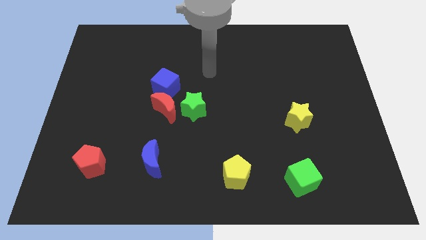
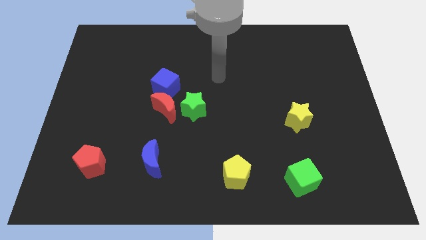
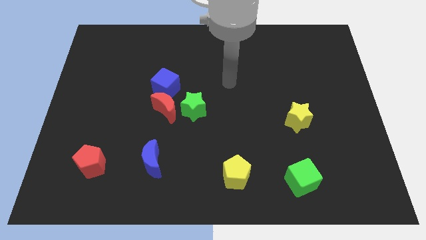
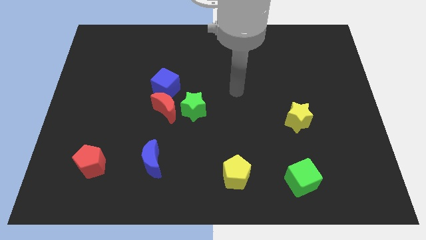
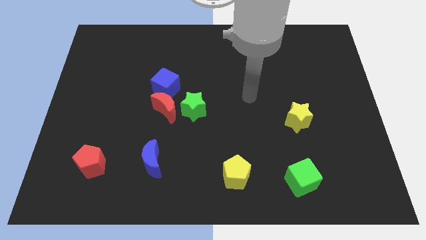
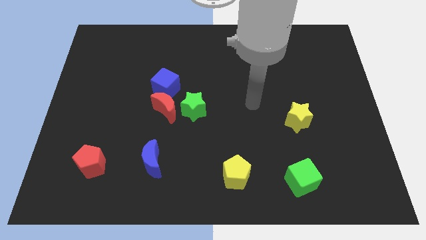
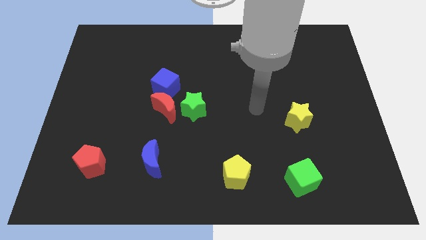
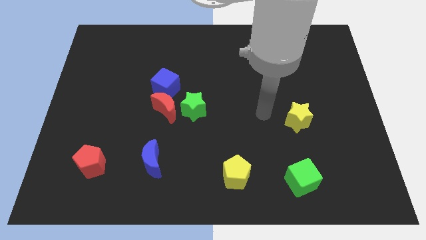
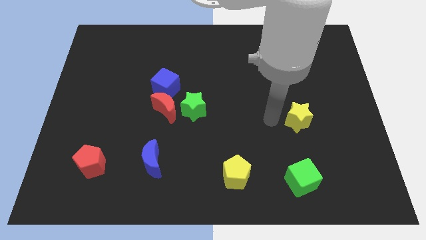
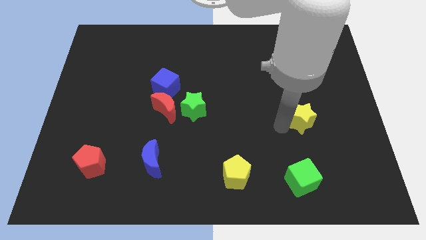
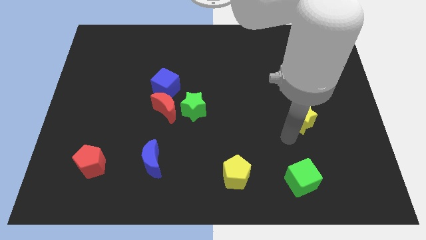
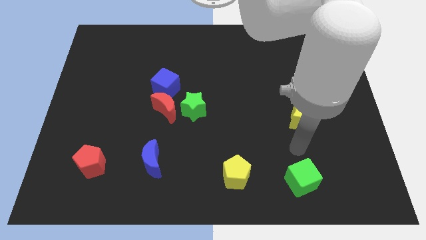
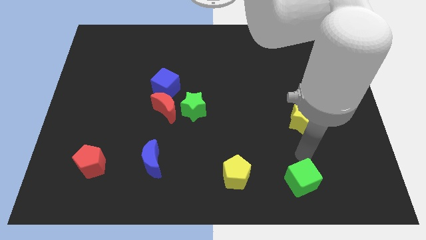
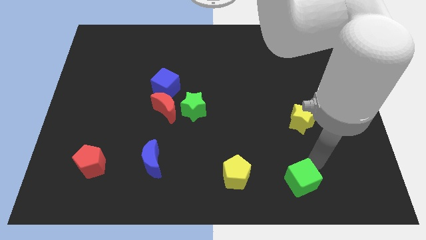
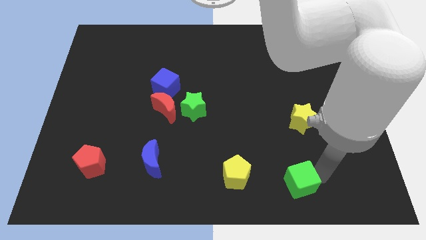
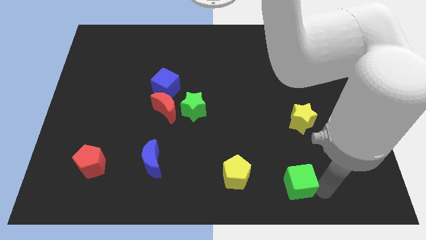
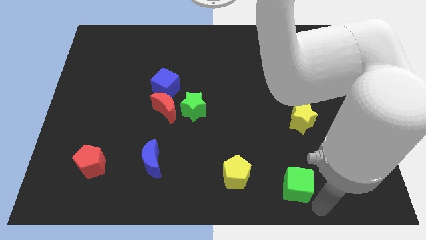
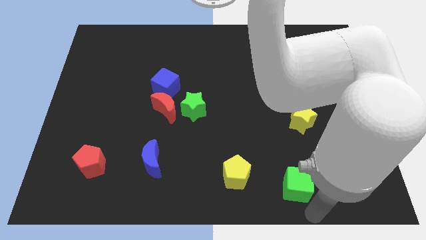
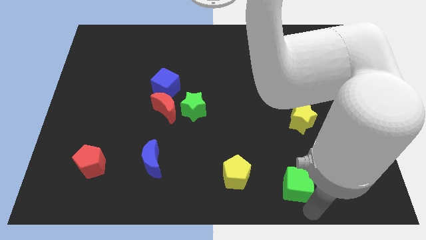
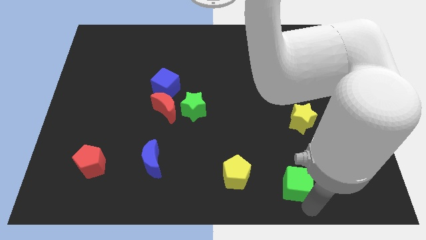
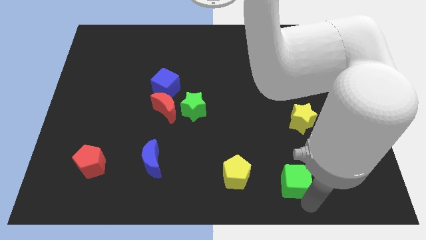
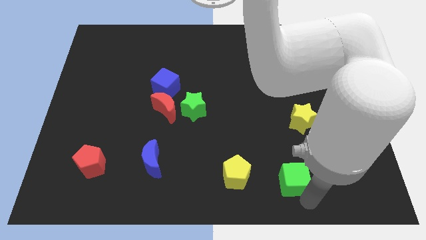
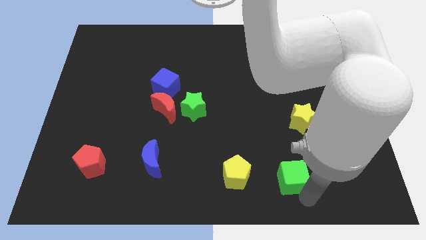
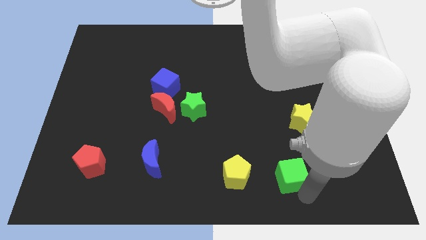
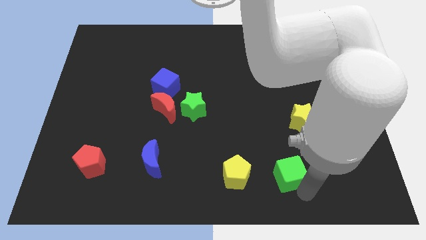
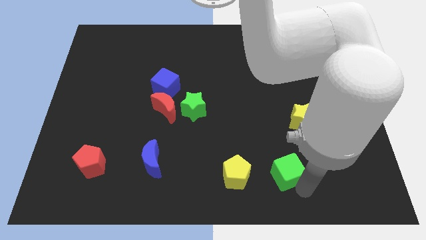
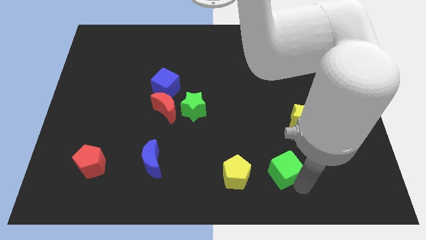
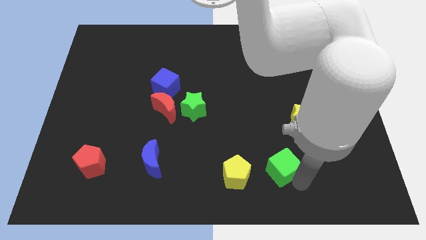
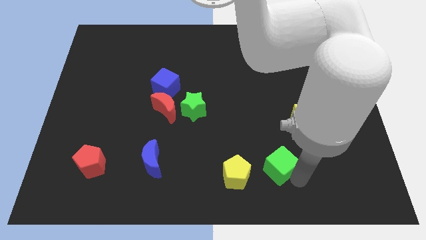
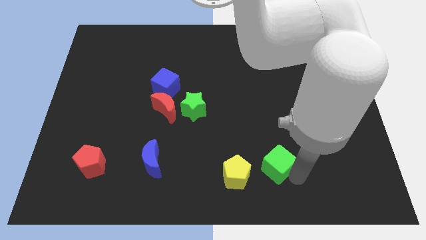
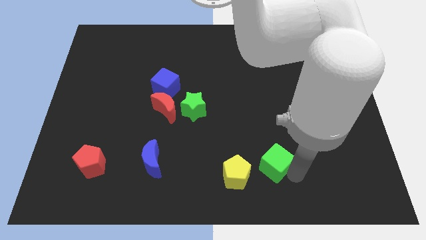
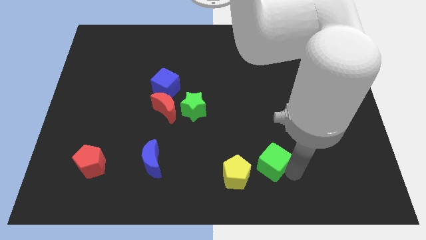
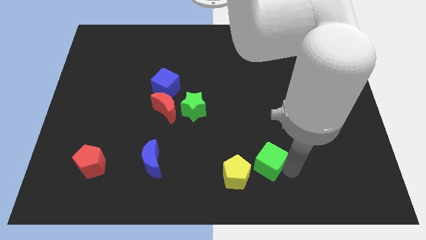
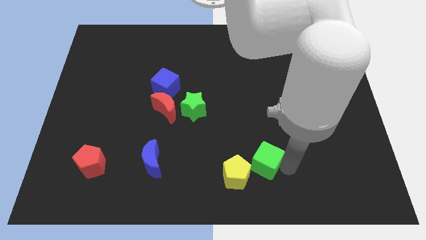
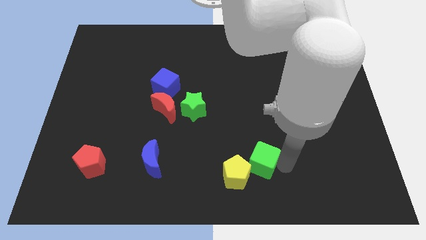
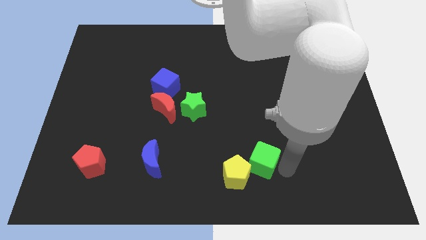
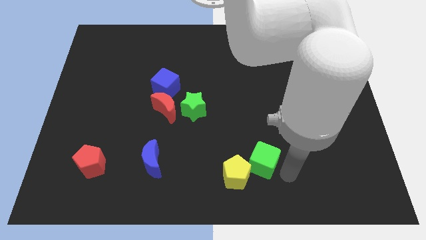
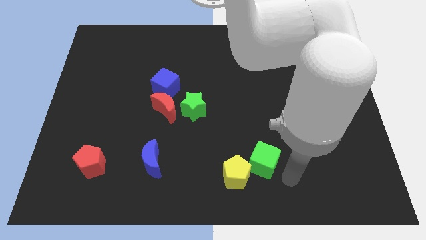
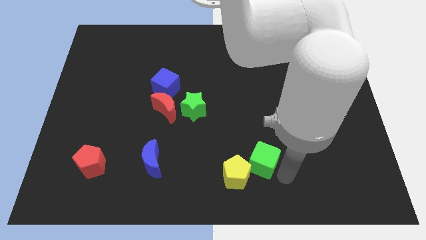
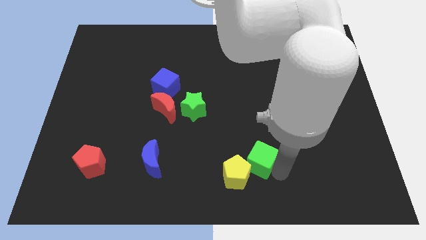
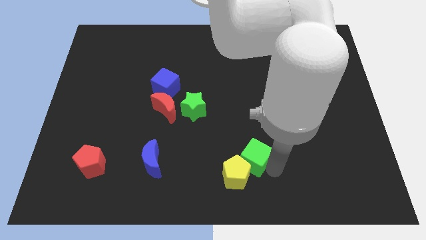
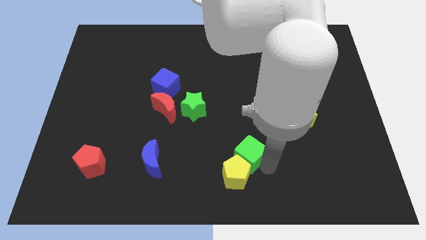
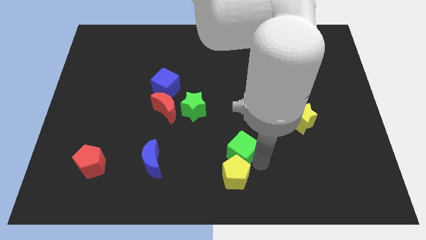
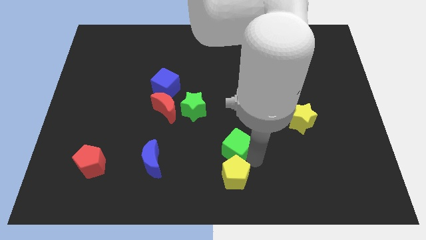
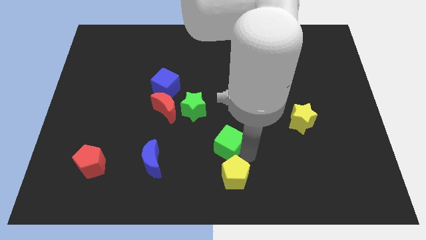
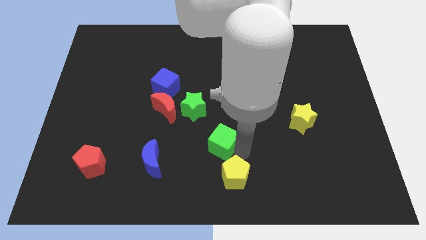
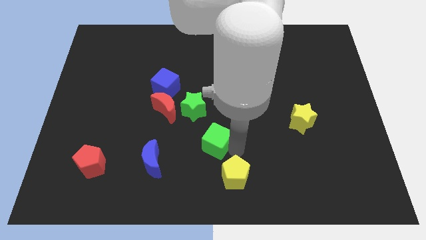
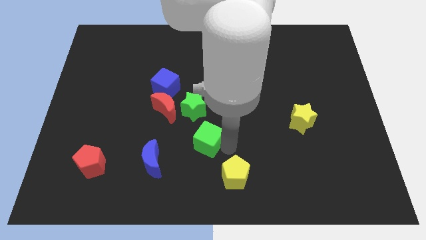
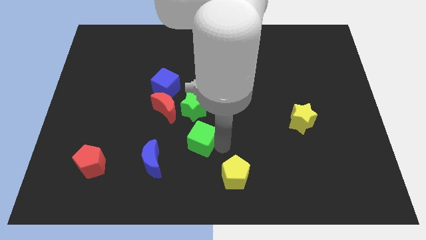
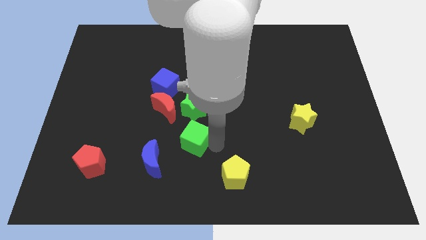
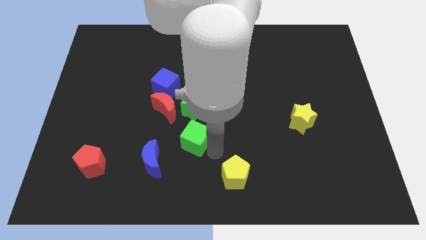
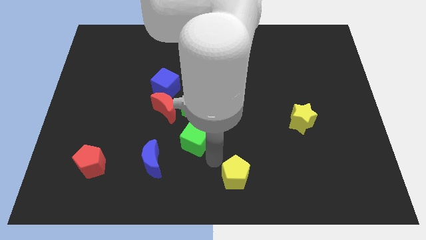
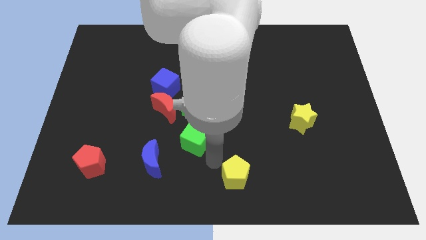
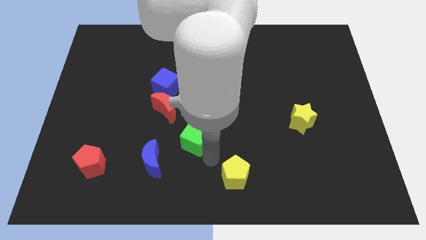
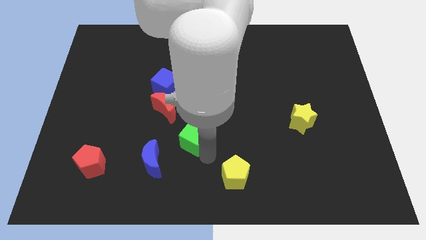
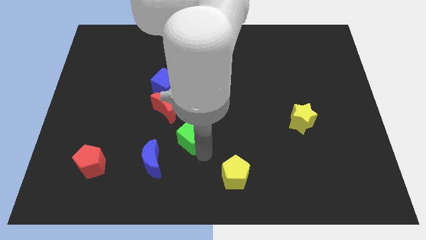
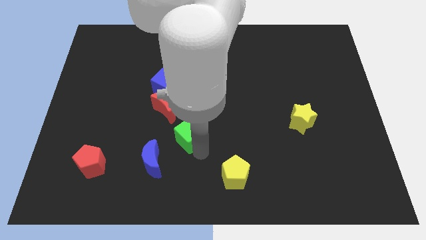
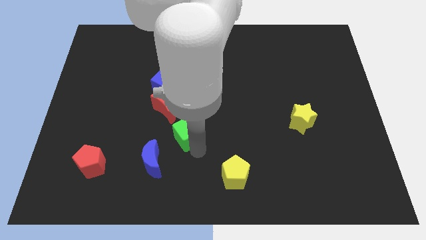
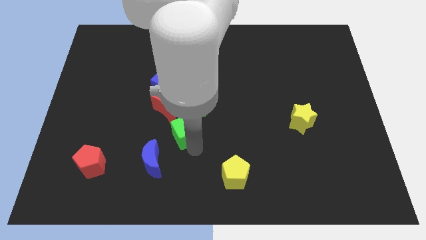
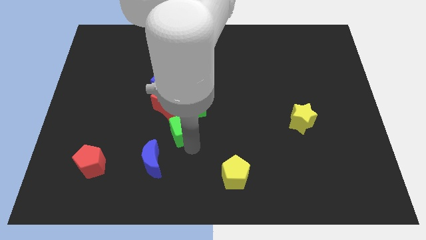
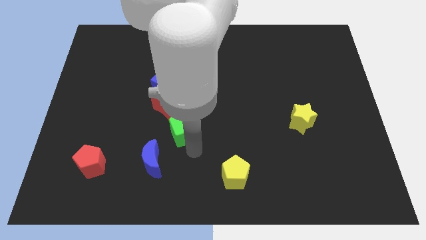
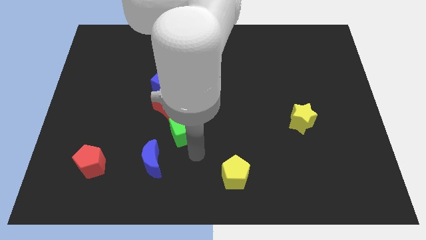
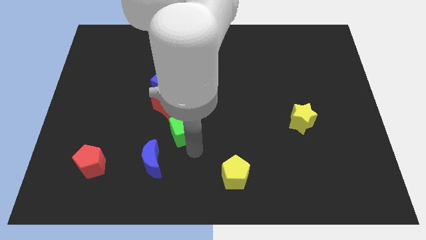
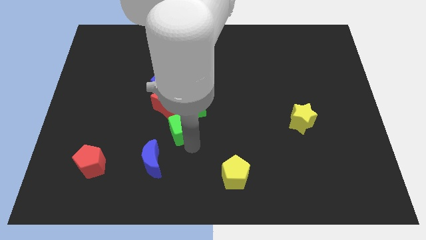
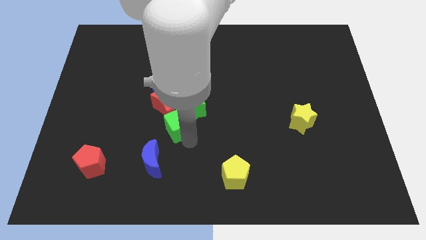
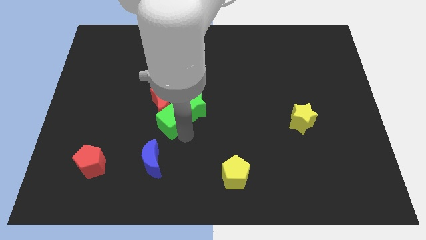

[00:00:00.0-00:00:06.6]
push the green cube towards the red moon
